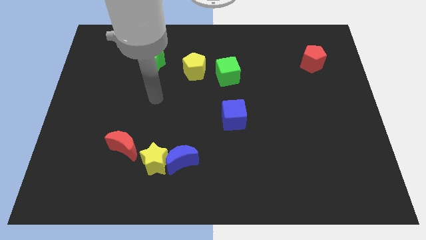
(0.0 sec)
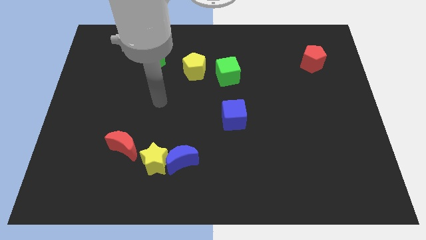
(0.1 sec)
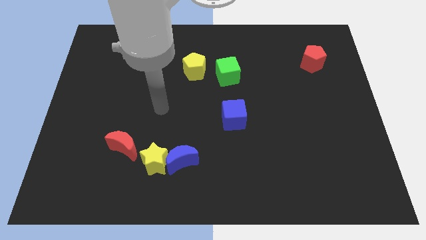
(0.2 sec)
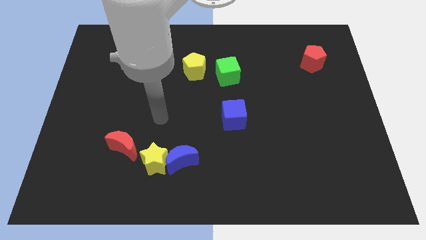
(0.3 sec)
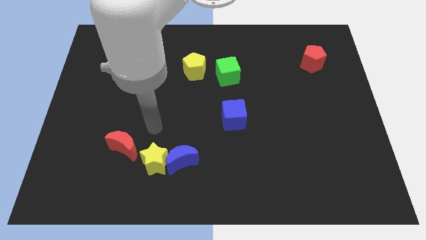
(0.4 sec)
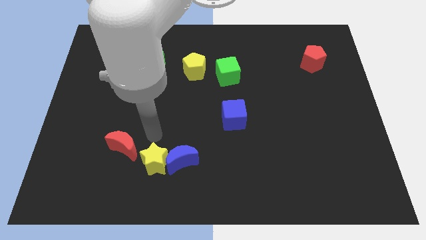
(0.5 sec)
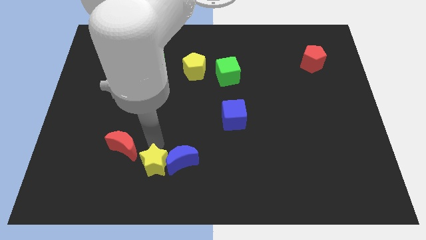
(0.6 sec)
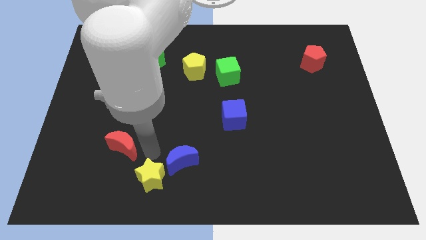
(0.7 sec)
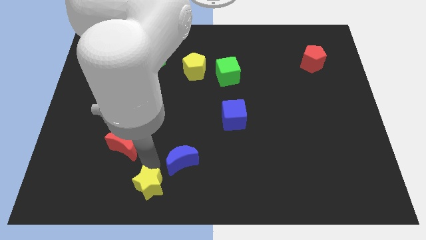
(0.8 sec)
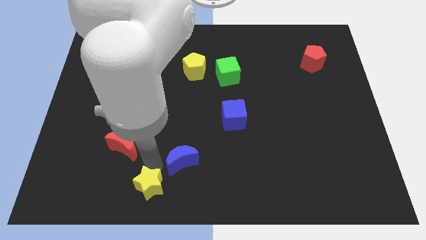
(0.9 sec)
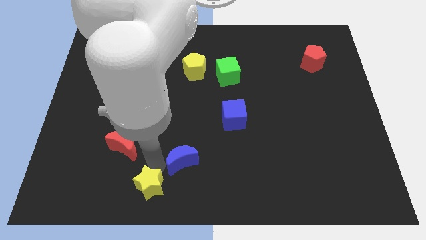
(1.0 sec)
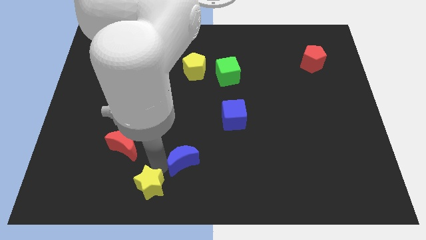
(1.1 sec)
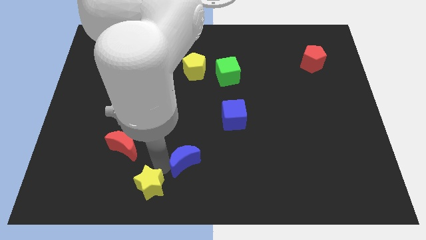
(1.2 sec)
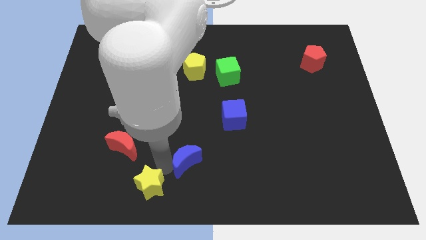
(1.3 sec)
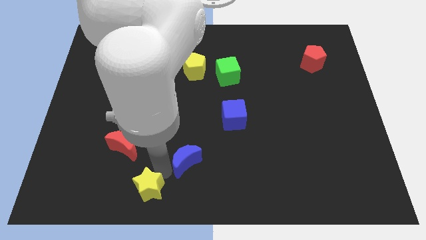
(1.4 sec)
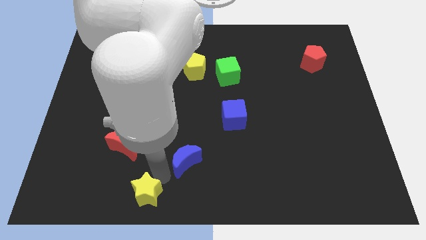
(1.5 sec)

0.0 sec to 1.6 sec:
pull the blue moon apart from the yellow star

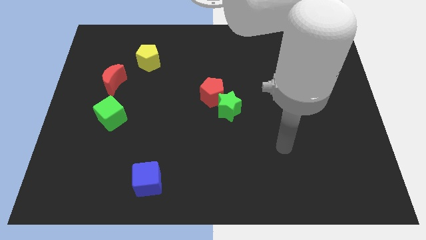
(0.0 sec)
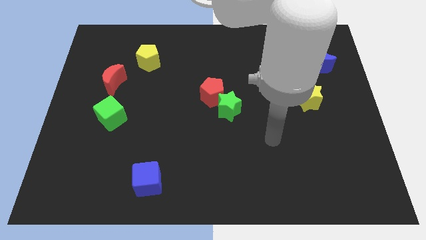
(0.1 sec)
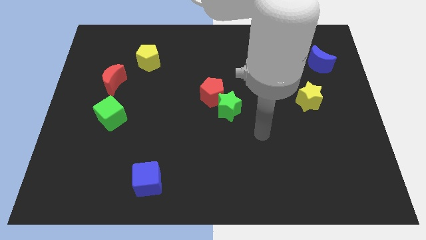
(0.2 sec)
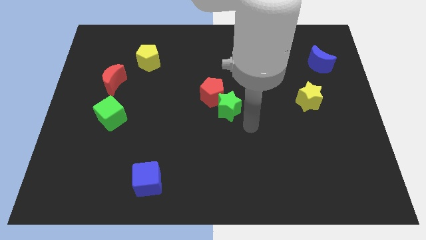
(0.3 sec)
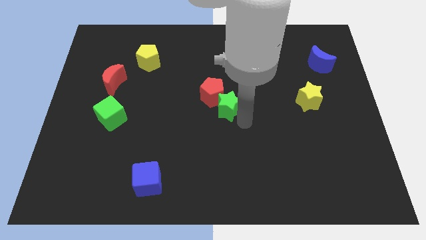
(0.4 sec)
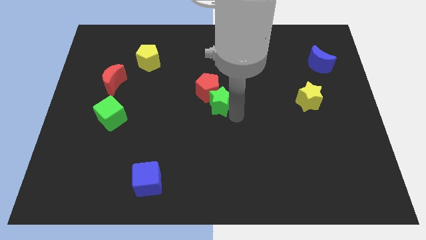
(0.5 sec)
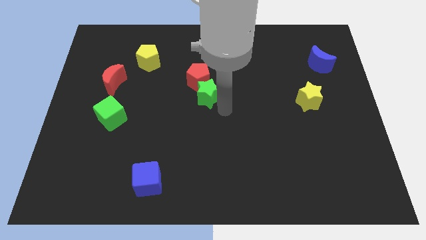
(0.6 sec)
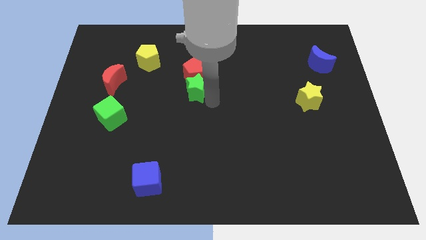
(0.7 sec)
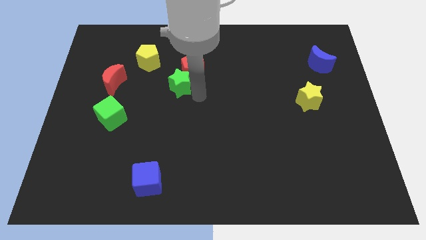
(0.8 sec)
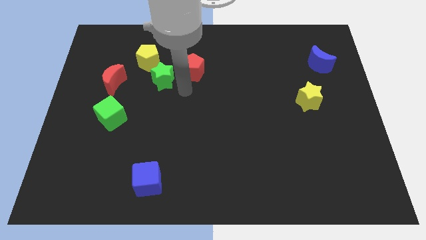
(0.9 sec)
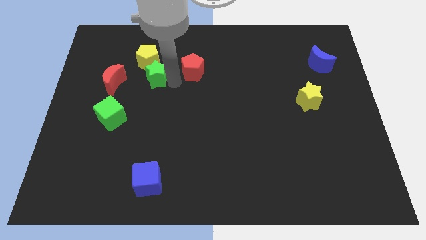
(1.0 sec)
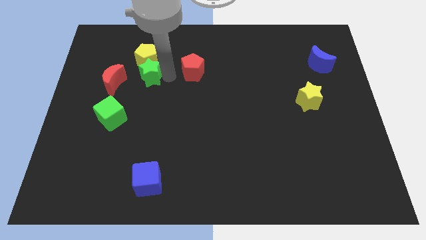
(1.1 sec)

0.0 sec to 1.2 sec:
move the red pentagon away from the green star

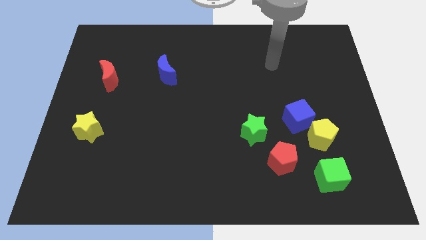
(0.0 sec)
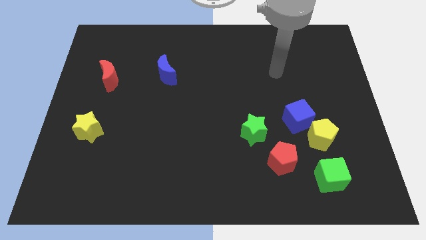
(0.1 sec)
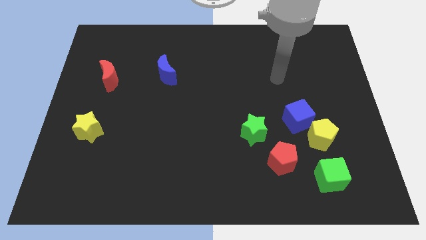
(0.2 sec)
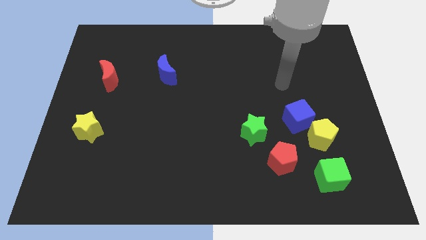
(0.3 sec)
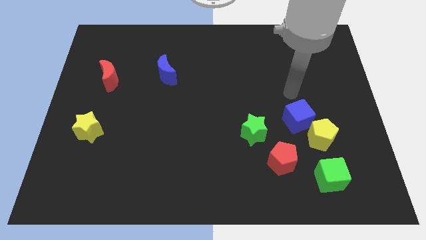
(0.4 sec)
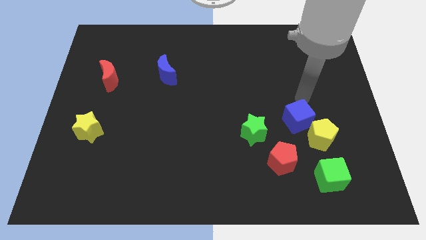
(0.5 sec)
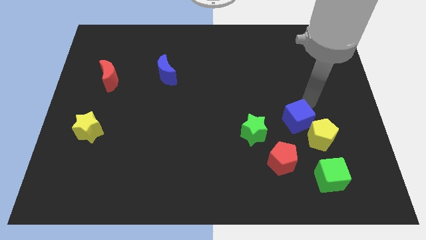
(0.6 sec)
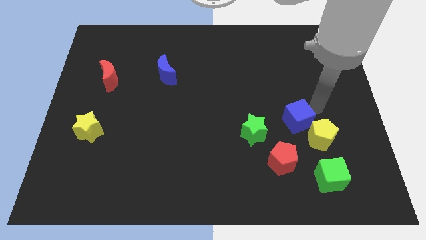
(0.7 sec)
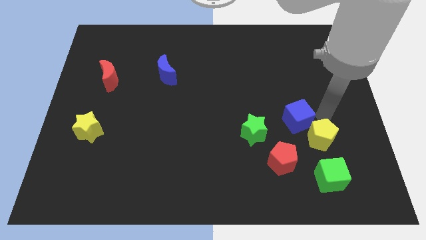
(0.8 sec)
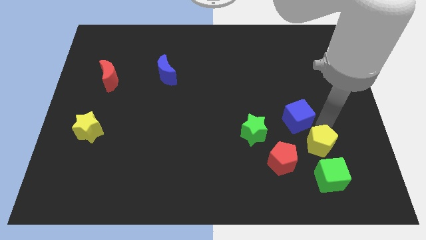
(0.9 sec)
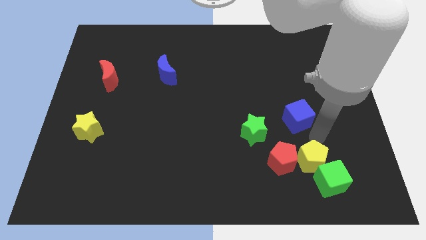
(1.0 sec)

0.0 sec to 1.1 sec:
separate the blue cube from the yellow pentagon

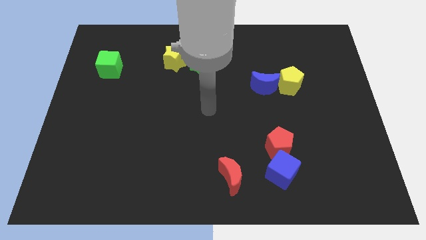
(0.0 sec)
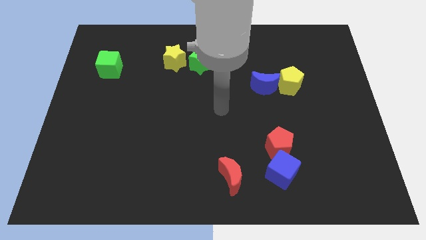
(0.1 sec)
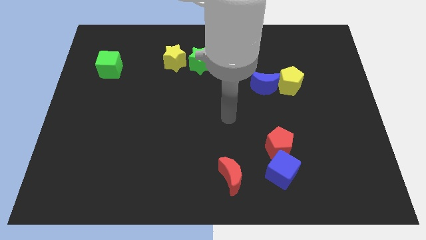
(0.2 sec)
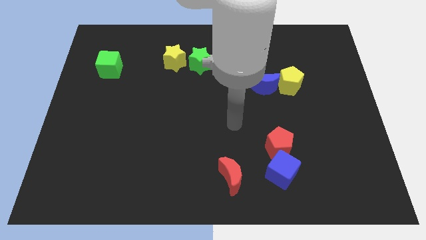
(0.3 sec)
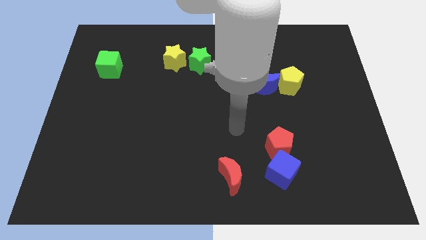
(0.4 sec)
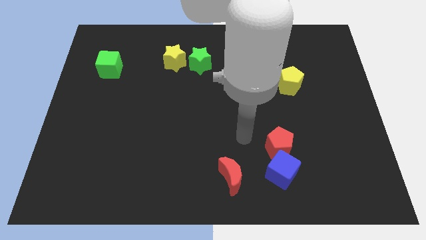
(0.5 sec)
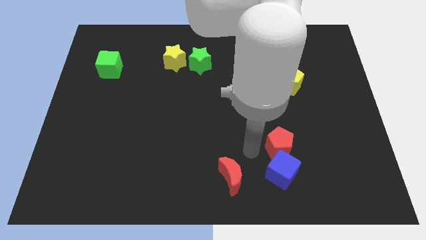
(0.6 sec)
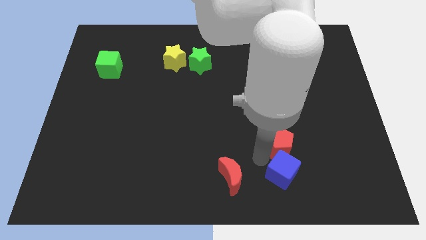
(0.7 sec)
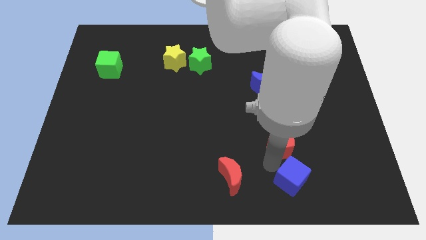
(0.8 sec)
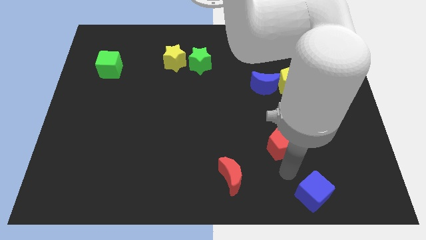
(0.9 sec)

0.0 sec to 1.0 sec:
separate the red pentagon from the blue cube

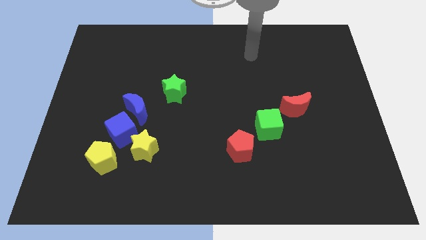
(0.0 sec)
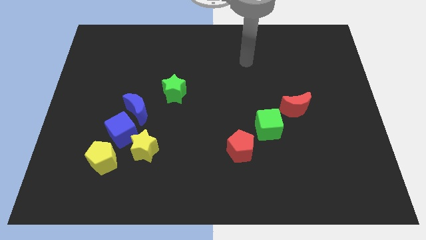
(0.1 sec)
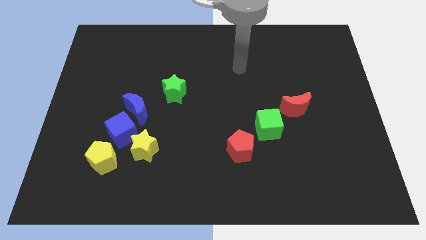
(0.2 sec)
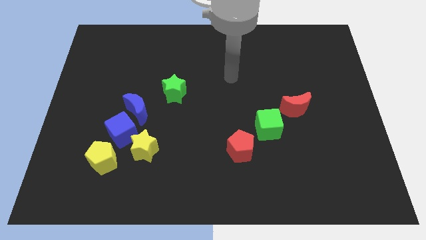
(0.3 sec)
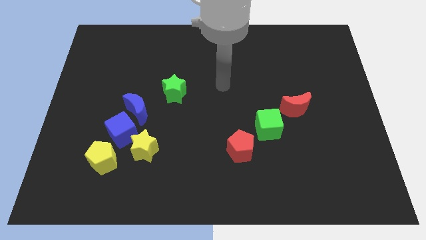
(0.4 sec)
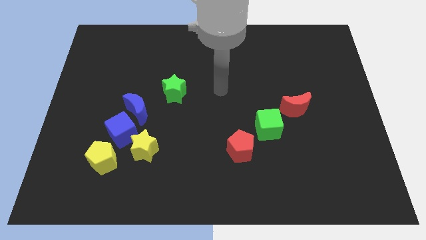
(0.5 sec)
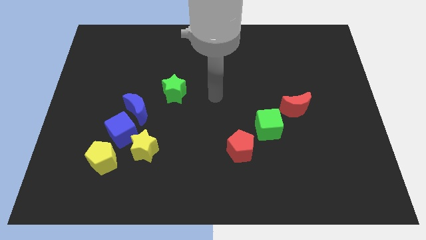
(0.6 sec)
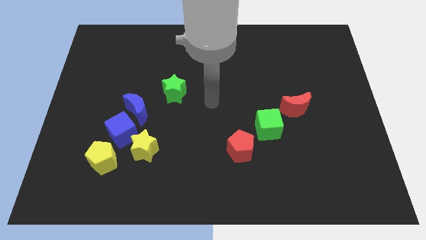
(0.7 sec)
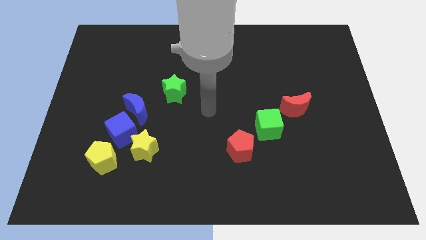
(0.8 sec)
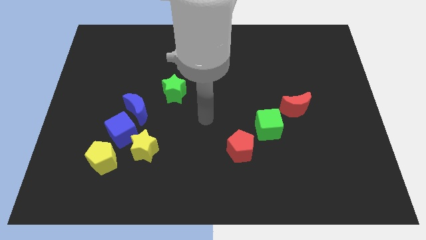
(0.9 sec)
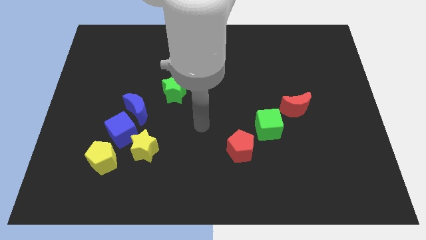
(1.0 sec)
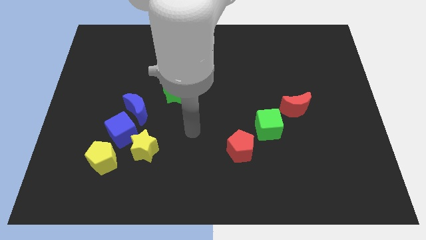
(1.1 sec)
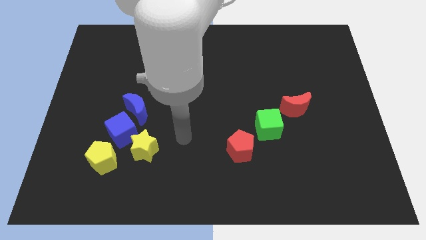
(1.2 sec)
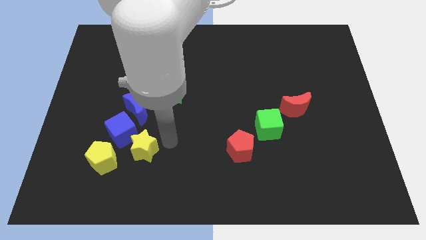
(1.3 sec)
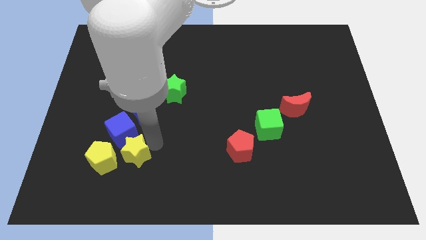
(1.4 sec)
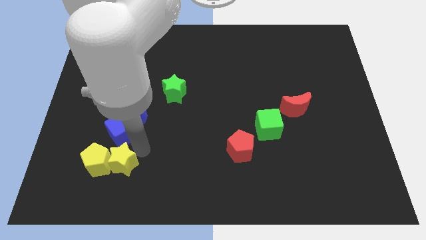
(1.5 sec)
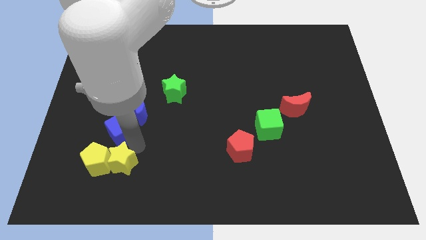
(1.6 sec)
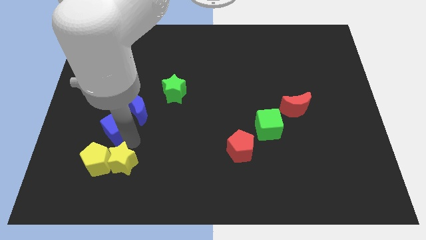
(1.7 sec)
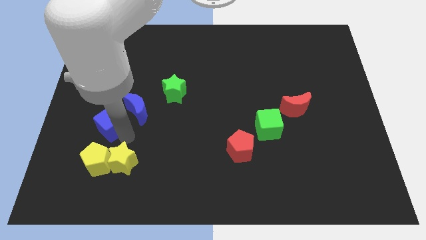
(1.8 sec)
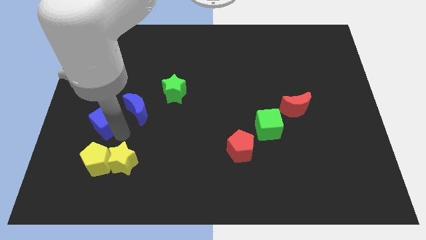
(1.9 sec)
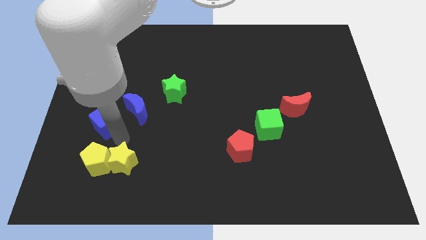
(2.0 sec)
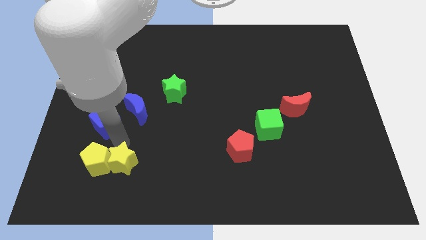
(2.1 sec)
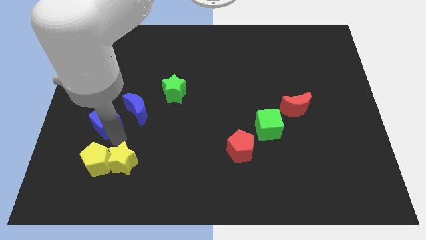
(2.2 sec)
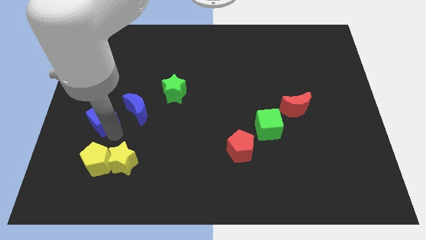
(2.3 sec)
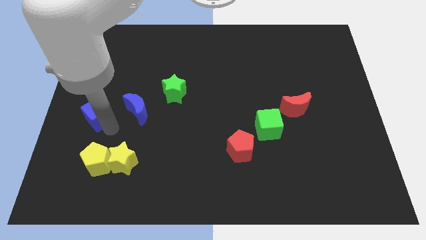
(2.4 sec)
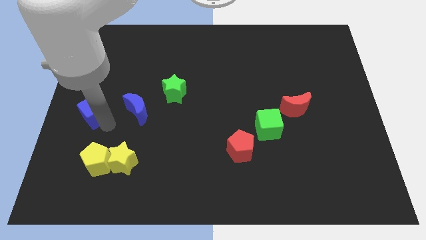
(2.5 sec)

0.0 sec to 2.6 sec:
move the blue cube away from the clump

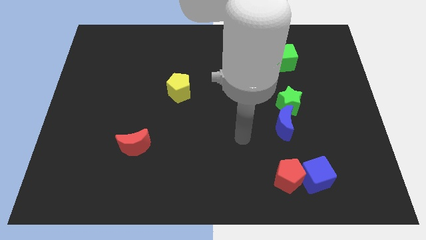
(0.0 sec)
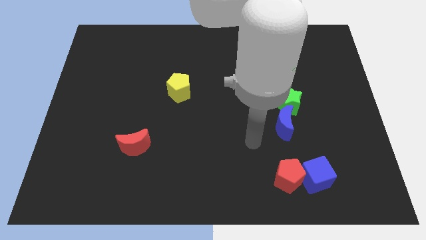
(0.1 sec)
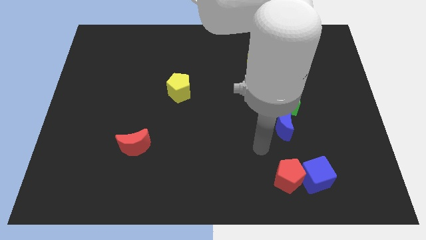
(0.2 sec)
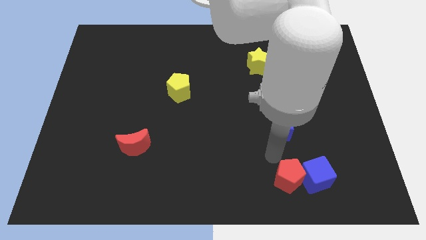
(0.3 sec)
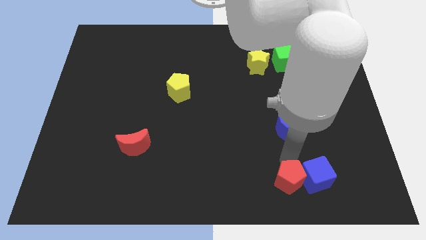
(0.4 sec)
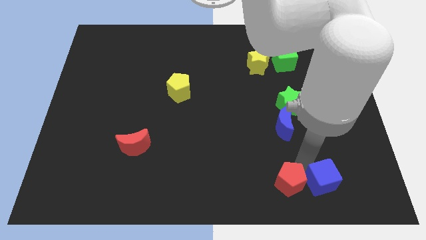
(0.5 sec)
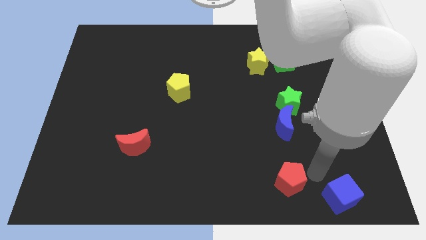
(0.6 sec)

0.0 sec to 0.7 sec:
pull the red pentagon apart from the blue cube

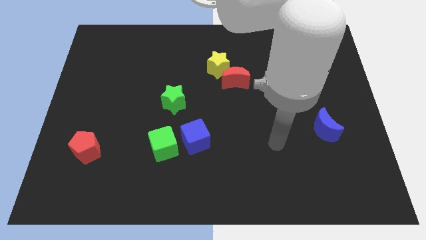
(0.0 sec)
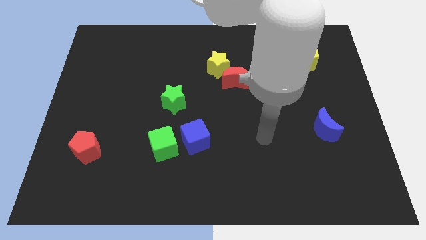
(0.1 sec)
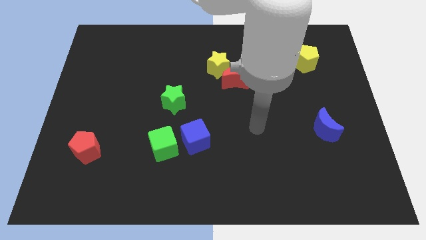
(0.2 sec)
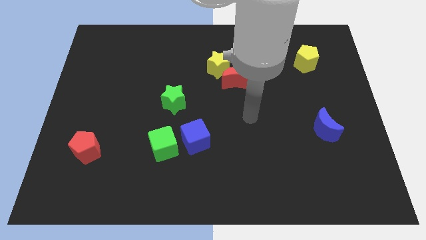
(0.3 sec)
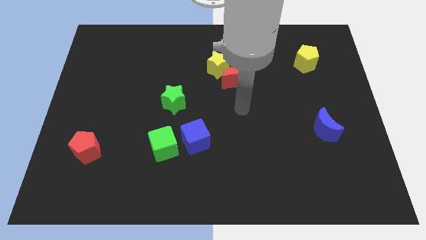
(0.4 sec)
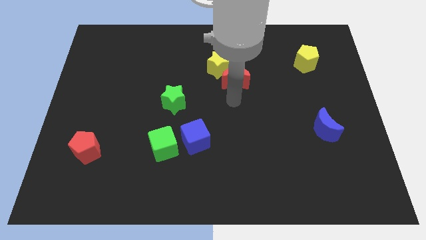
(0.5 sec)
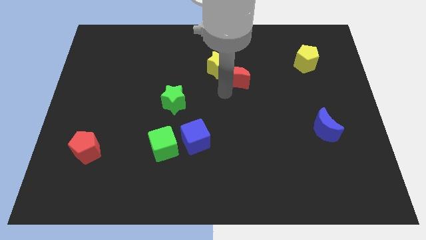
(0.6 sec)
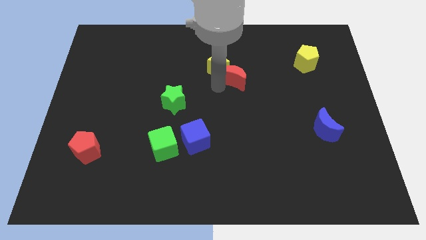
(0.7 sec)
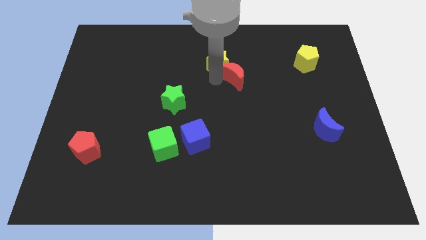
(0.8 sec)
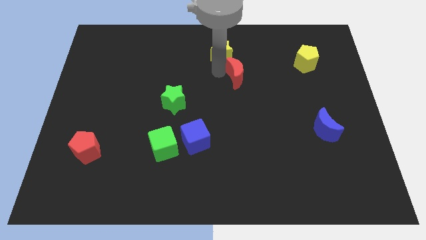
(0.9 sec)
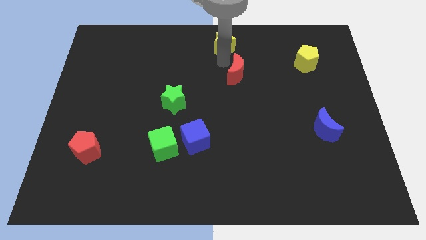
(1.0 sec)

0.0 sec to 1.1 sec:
move the red moon away from the yellow star
